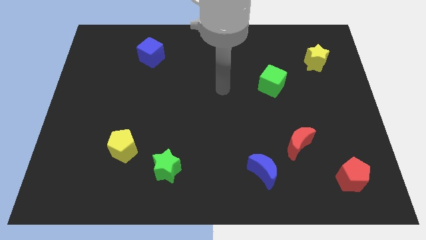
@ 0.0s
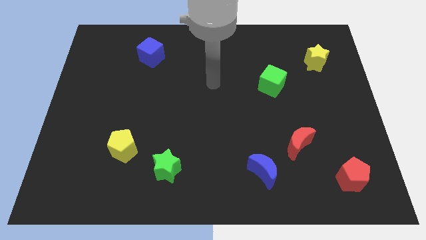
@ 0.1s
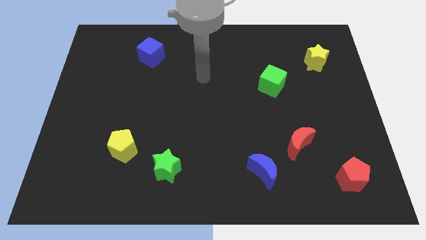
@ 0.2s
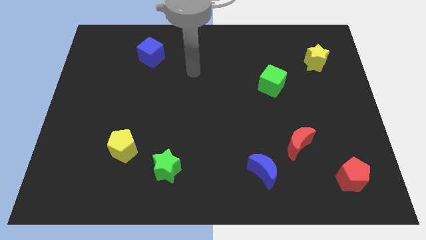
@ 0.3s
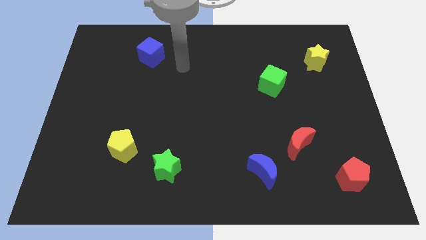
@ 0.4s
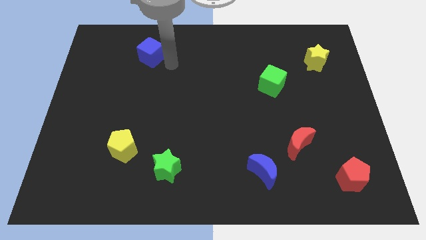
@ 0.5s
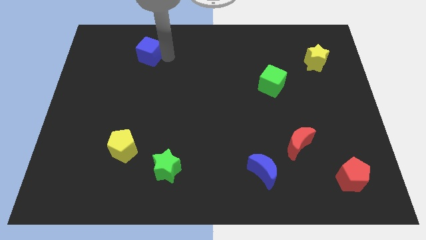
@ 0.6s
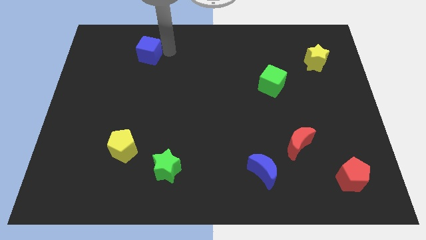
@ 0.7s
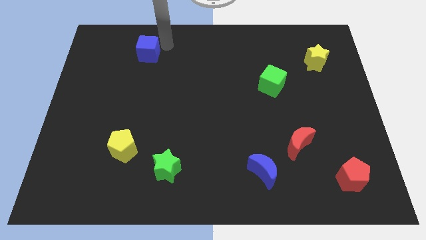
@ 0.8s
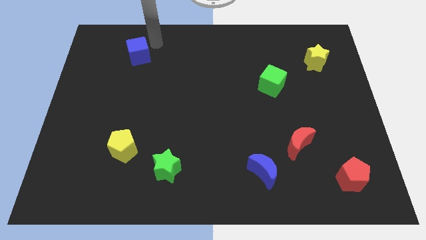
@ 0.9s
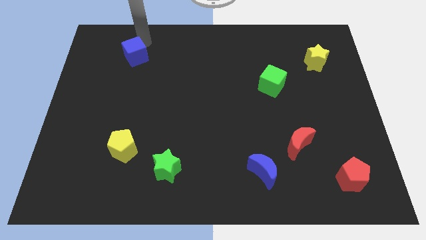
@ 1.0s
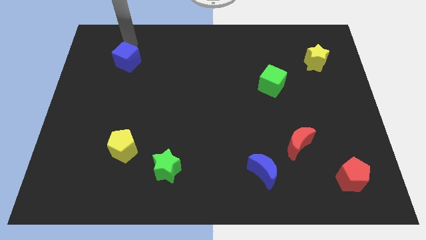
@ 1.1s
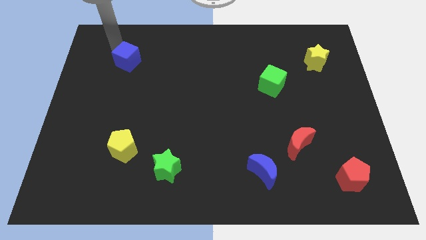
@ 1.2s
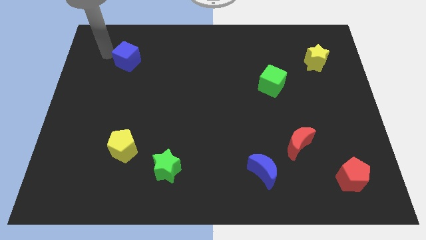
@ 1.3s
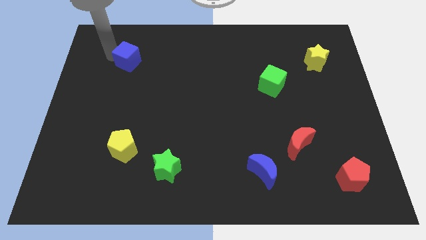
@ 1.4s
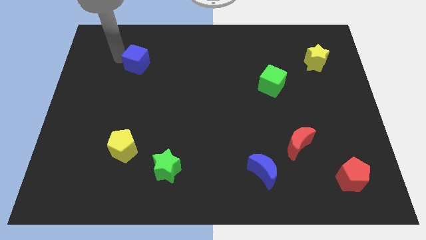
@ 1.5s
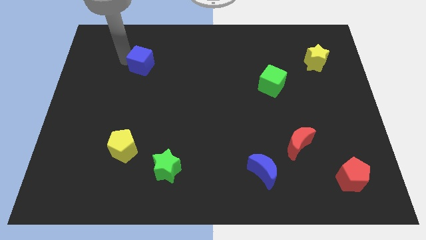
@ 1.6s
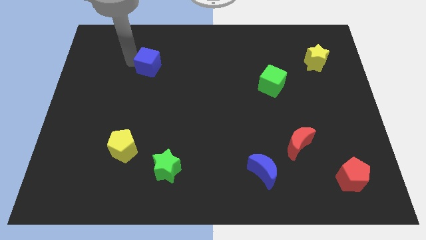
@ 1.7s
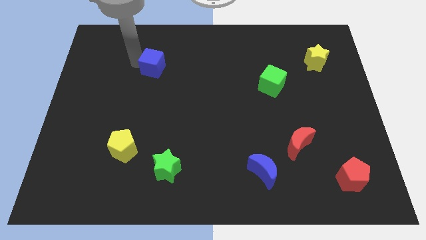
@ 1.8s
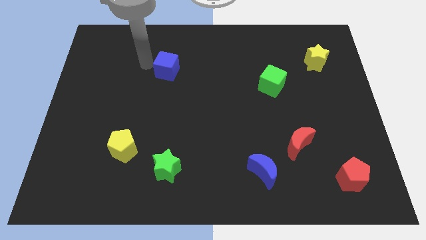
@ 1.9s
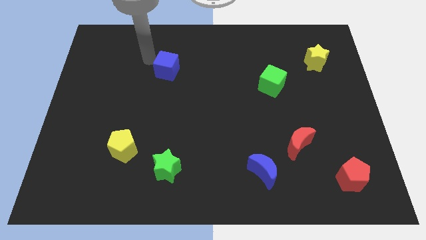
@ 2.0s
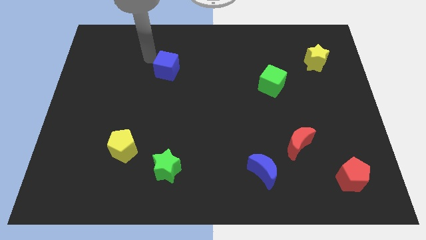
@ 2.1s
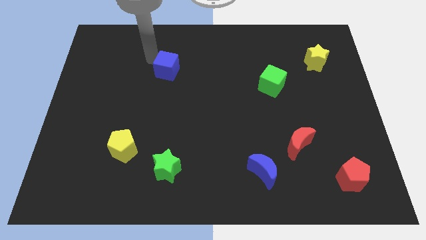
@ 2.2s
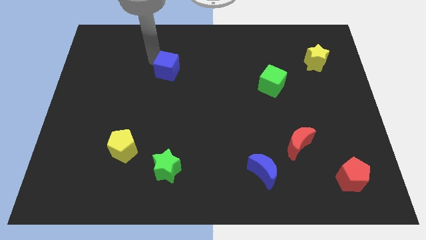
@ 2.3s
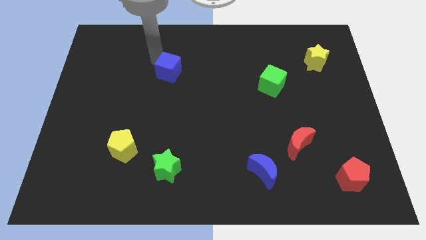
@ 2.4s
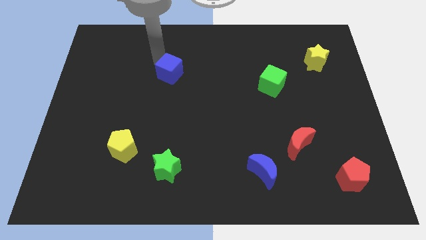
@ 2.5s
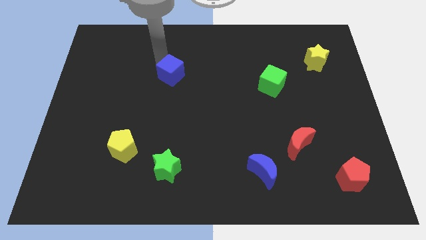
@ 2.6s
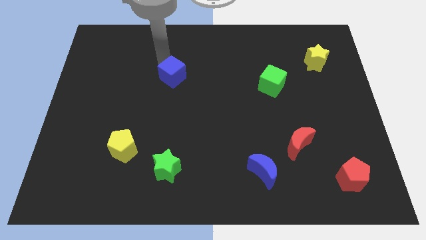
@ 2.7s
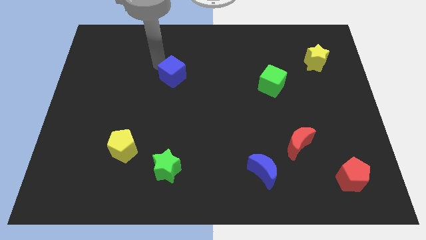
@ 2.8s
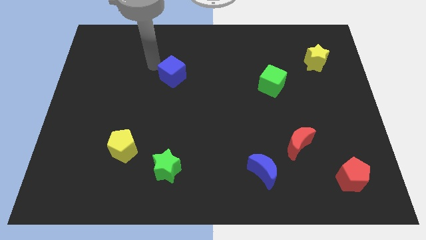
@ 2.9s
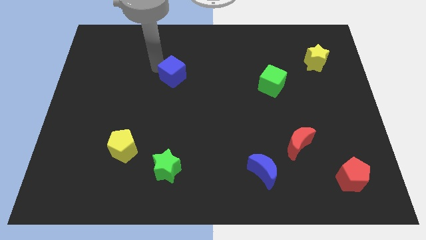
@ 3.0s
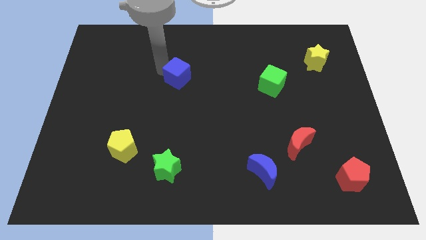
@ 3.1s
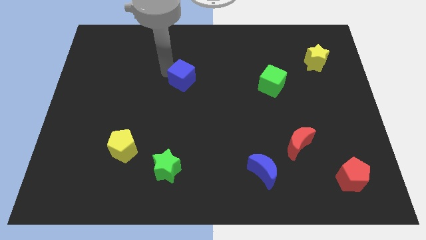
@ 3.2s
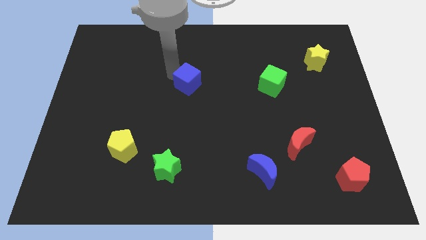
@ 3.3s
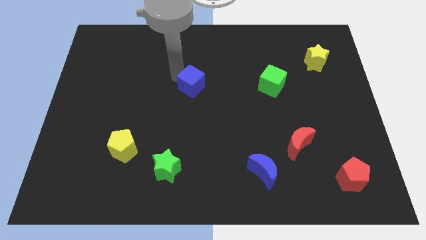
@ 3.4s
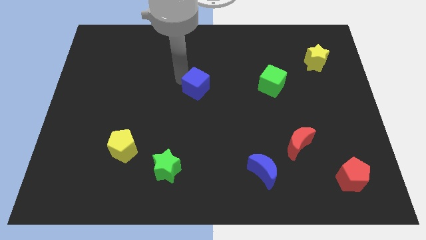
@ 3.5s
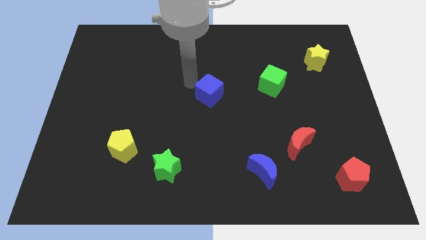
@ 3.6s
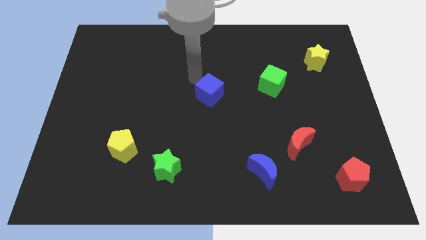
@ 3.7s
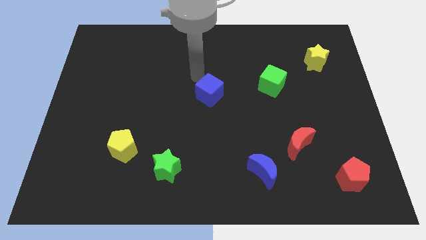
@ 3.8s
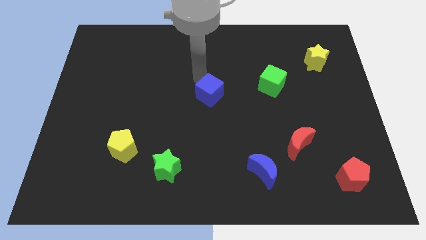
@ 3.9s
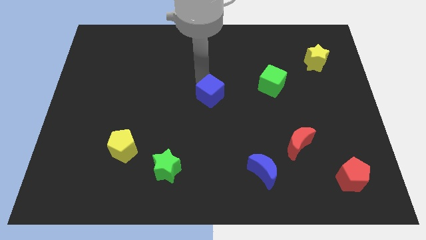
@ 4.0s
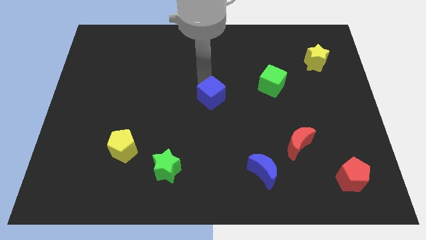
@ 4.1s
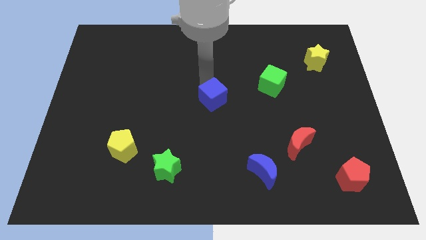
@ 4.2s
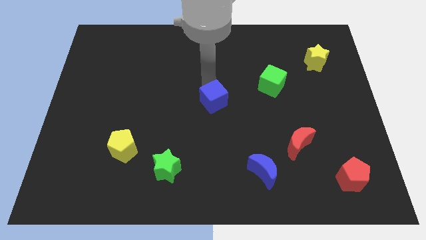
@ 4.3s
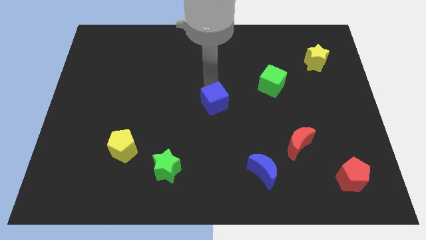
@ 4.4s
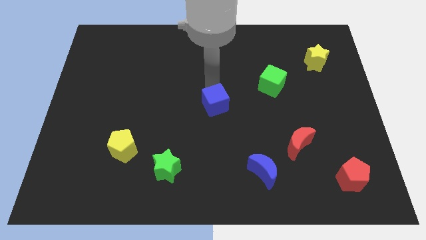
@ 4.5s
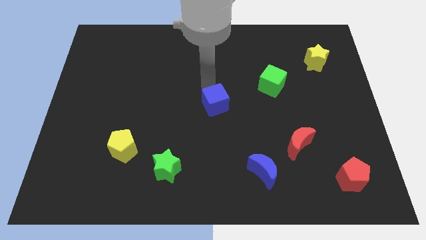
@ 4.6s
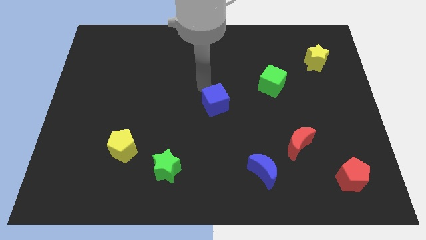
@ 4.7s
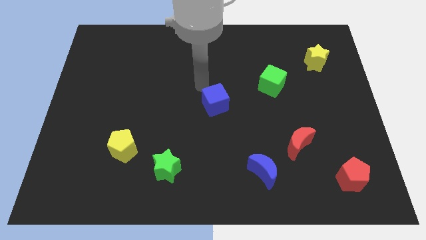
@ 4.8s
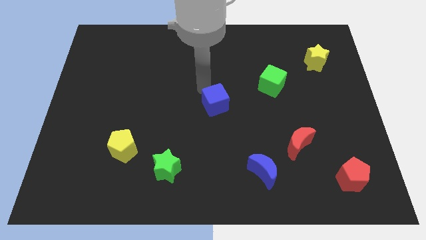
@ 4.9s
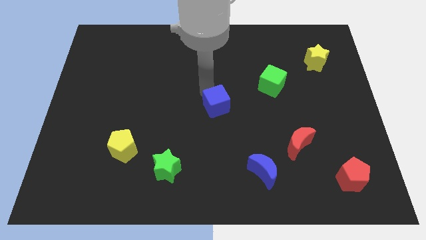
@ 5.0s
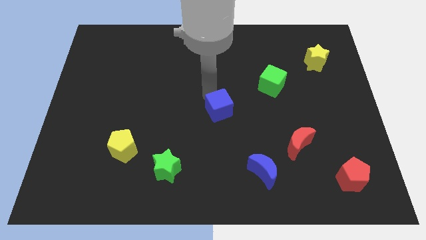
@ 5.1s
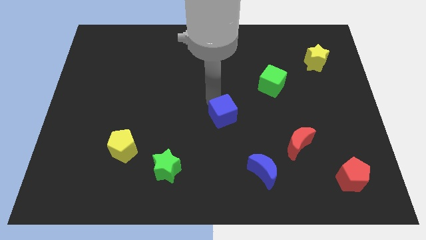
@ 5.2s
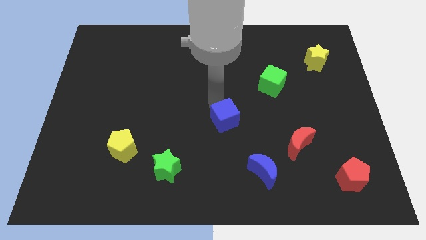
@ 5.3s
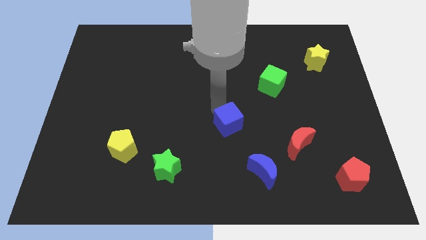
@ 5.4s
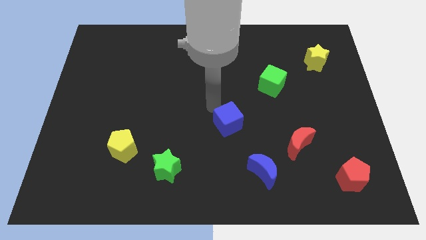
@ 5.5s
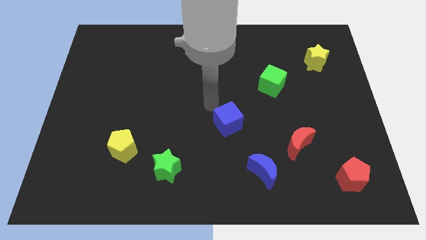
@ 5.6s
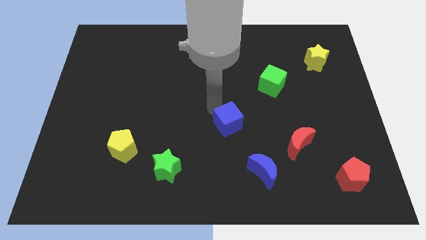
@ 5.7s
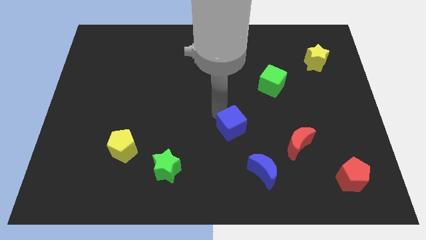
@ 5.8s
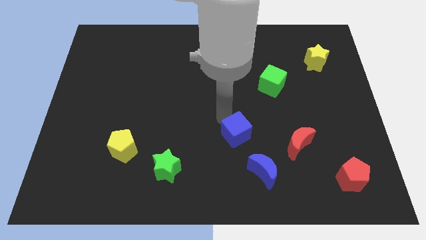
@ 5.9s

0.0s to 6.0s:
put the blue cube just left of the red moon

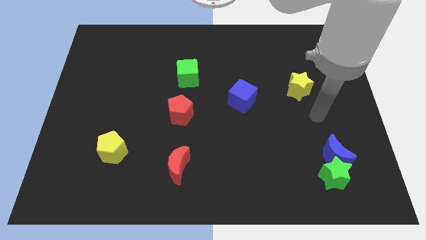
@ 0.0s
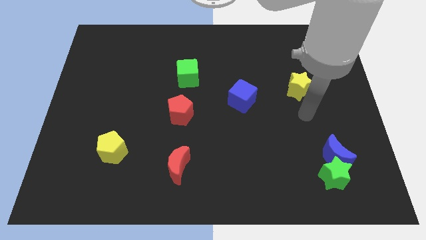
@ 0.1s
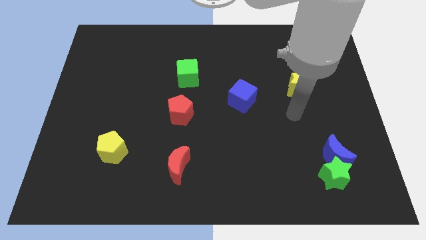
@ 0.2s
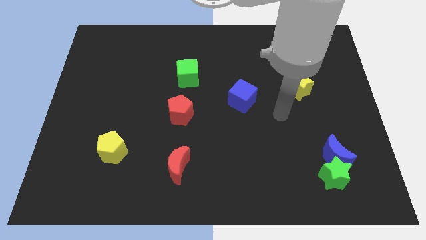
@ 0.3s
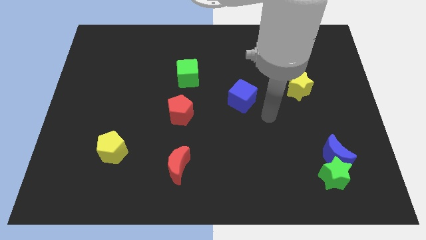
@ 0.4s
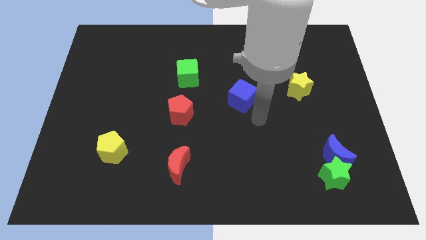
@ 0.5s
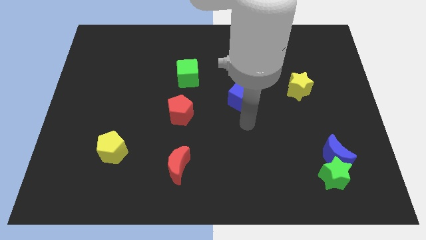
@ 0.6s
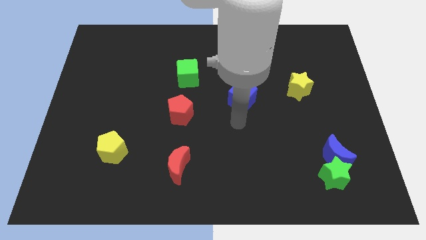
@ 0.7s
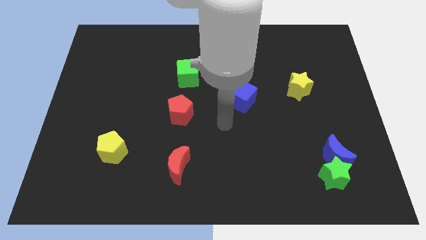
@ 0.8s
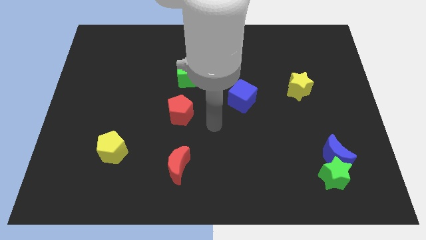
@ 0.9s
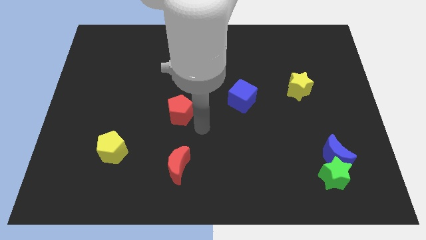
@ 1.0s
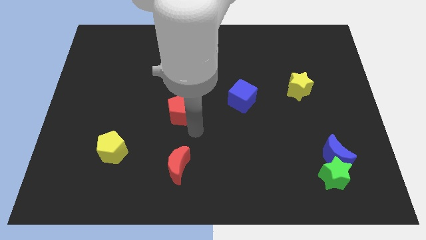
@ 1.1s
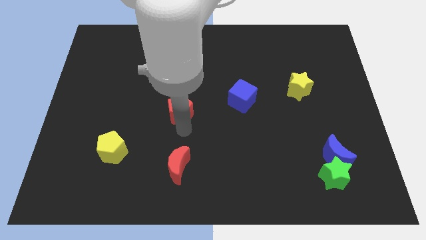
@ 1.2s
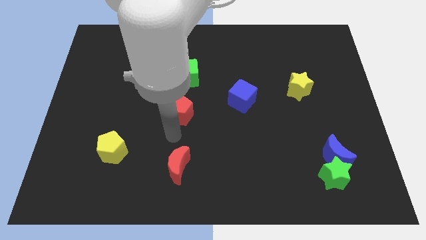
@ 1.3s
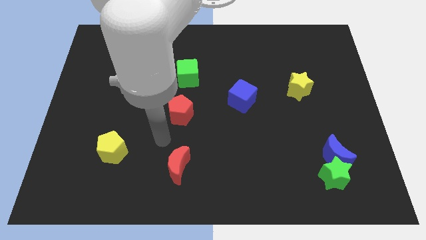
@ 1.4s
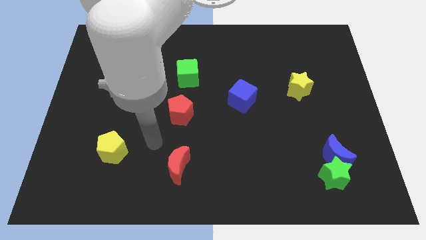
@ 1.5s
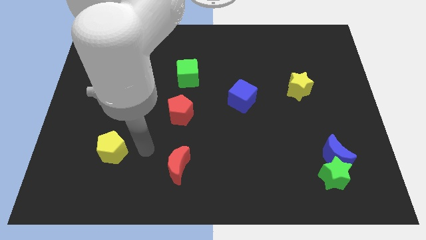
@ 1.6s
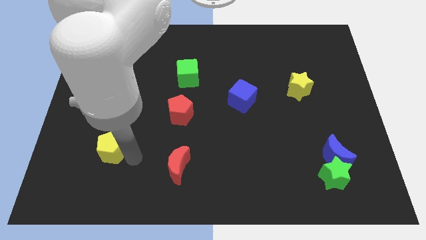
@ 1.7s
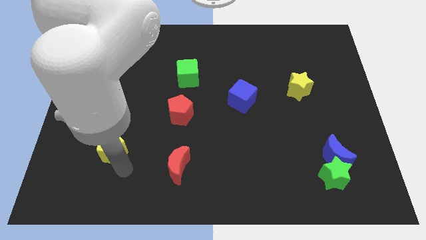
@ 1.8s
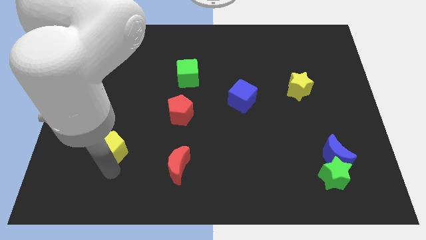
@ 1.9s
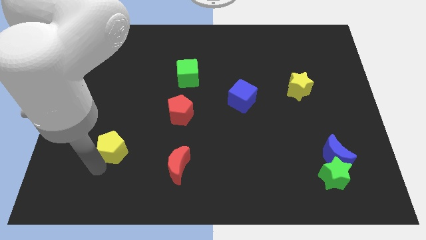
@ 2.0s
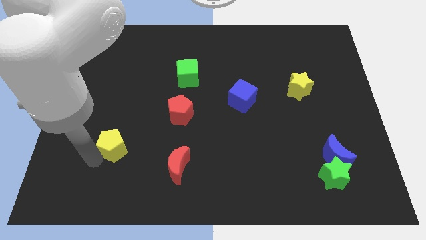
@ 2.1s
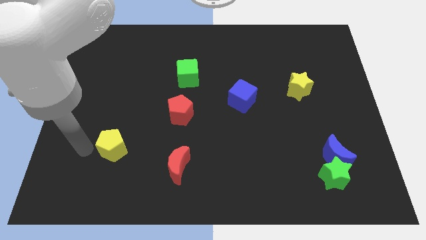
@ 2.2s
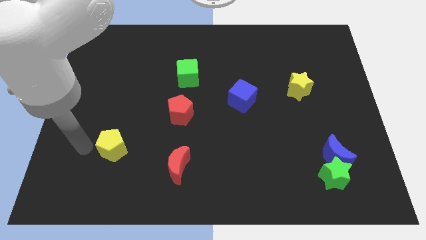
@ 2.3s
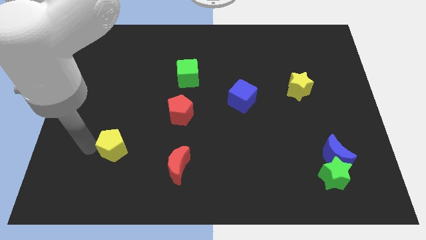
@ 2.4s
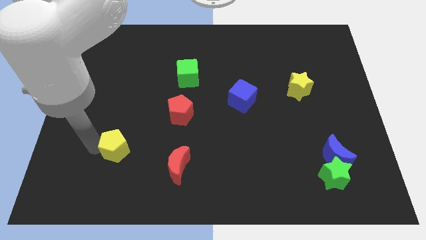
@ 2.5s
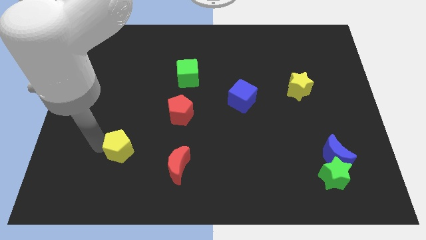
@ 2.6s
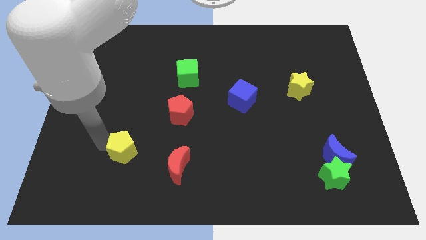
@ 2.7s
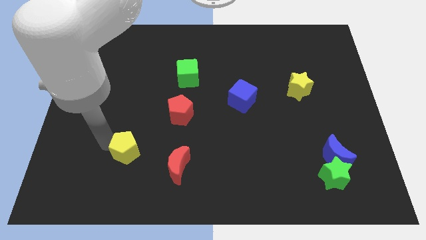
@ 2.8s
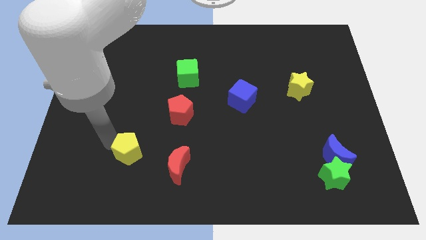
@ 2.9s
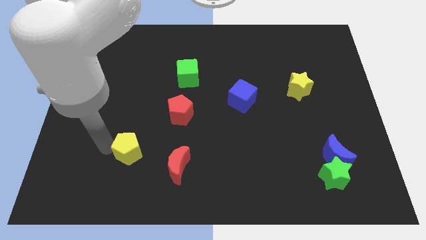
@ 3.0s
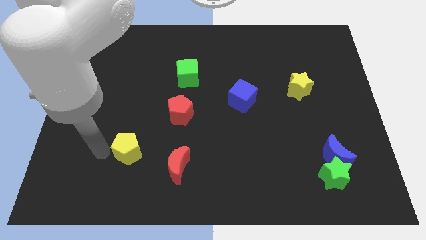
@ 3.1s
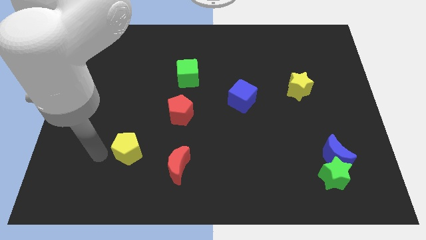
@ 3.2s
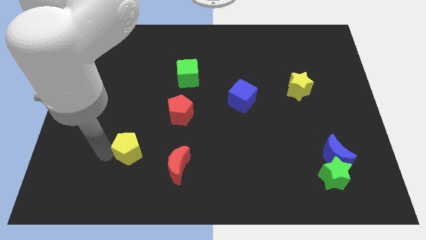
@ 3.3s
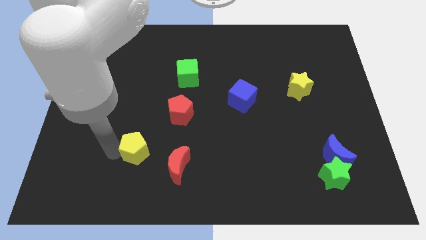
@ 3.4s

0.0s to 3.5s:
slide the yellow pentagon to the top left of the red moon
